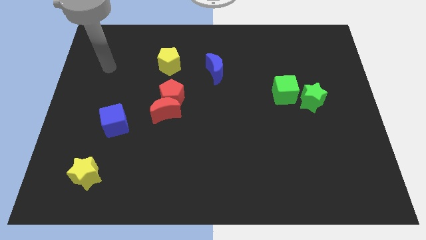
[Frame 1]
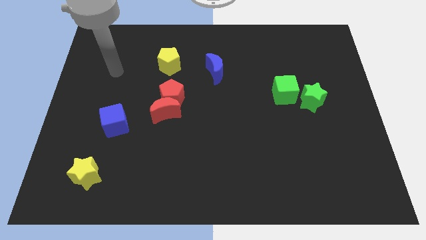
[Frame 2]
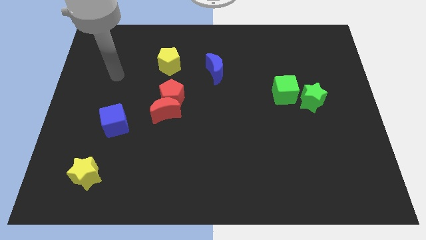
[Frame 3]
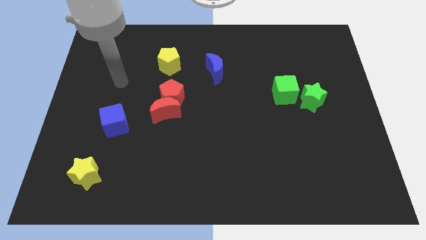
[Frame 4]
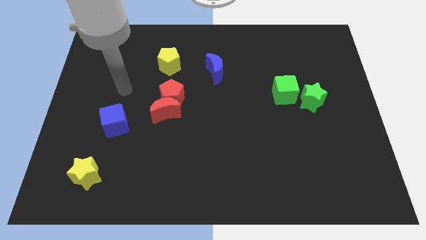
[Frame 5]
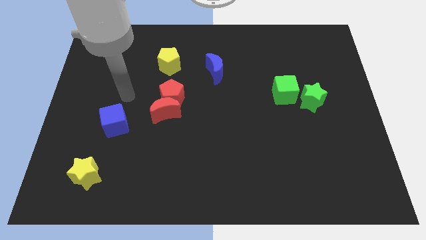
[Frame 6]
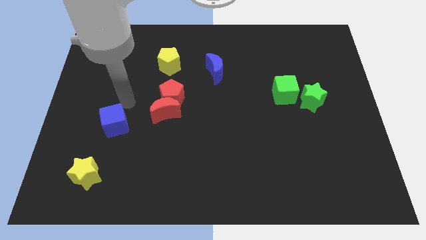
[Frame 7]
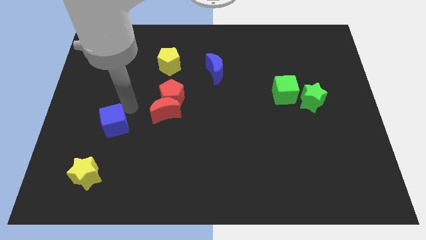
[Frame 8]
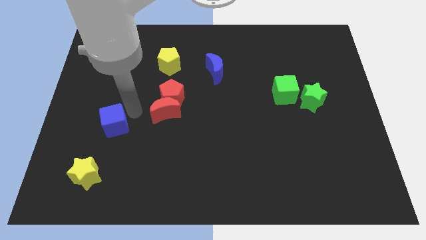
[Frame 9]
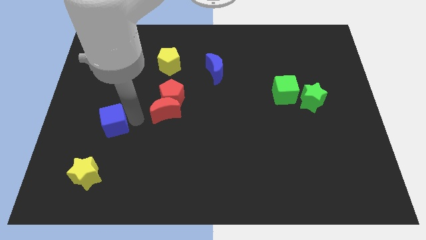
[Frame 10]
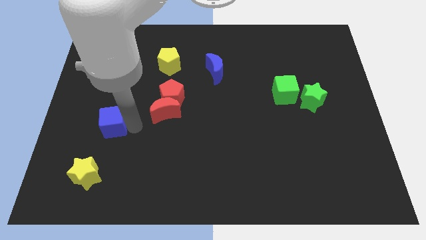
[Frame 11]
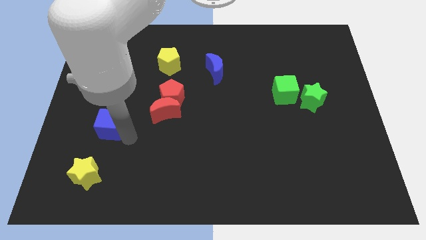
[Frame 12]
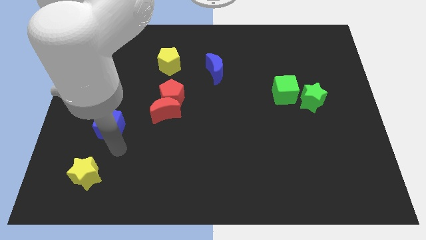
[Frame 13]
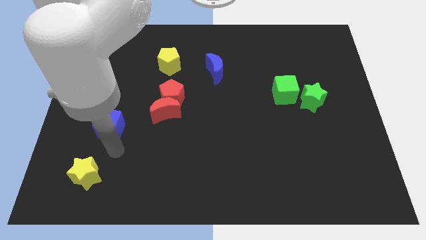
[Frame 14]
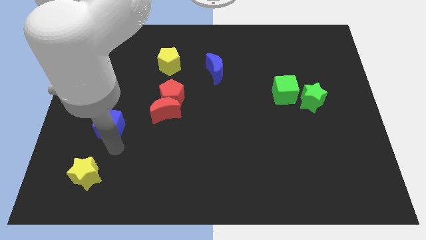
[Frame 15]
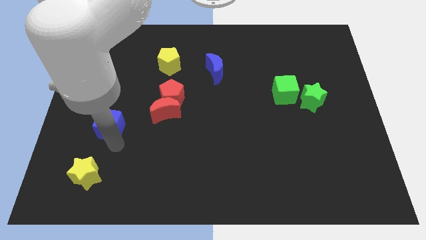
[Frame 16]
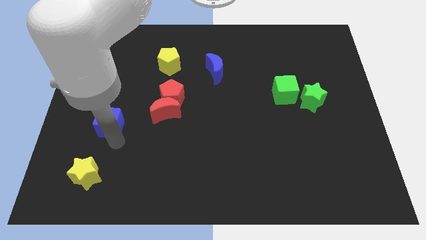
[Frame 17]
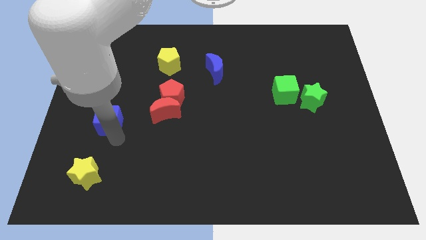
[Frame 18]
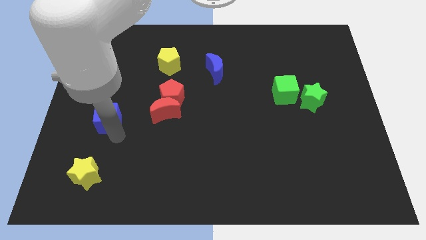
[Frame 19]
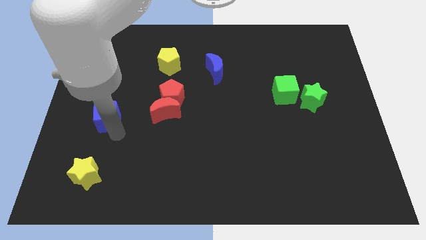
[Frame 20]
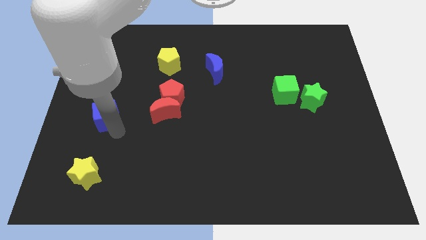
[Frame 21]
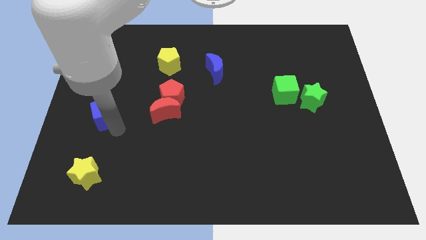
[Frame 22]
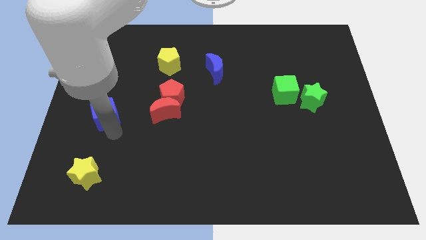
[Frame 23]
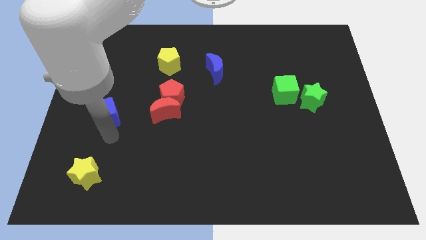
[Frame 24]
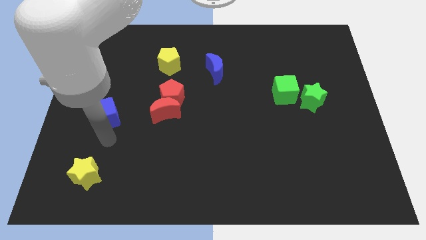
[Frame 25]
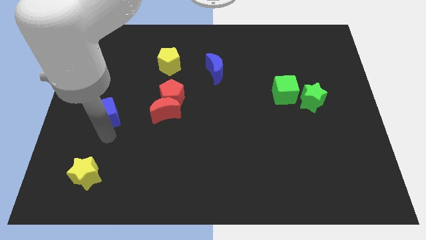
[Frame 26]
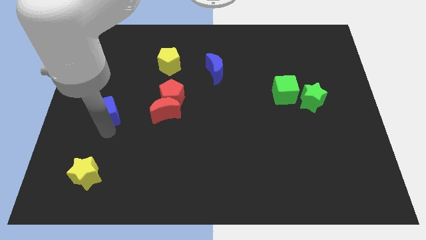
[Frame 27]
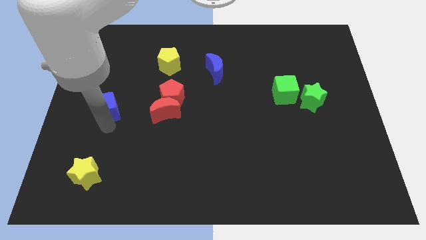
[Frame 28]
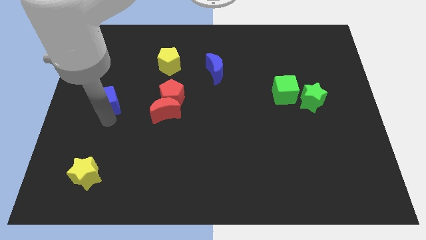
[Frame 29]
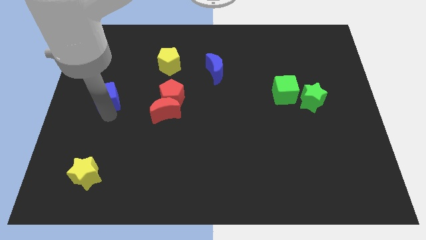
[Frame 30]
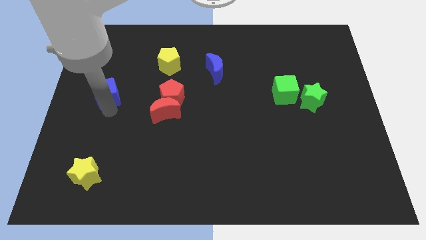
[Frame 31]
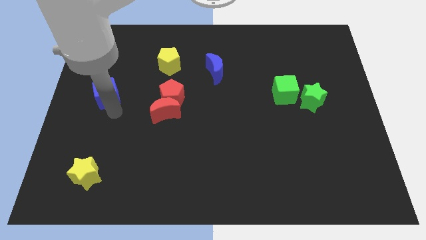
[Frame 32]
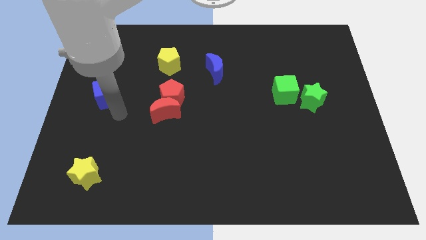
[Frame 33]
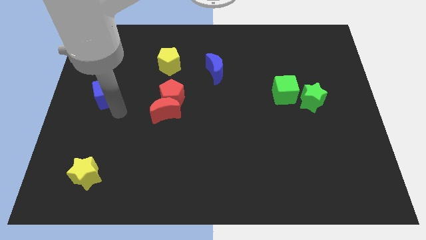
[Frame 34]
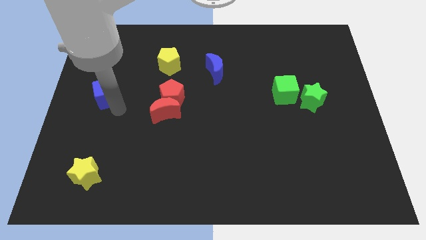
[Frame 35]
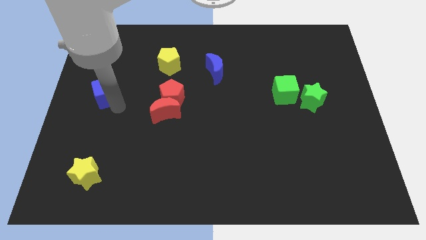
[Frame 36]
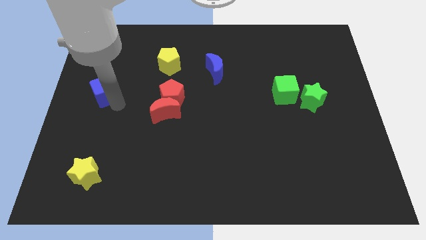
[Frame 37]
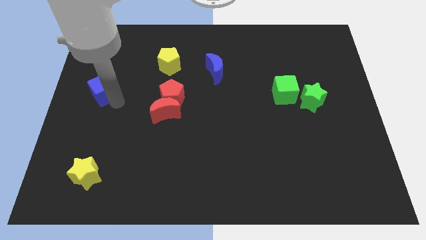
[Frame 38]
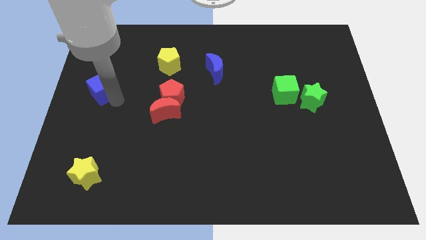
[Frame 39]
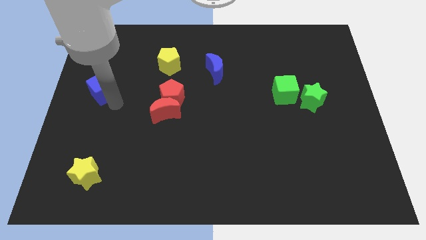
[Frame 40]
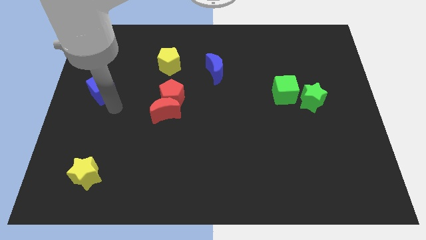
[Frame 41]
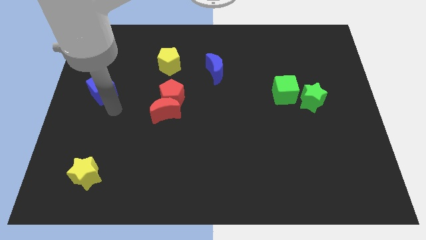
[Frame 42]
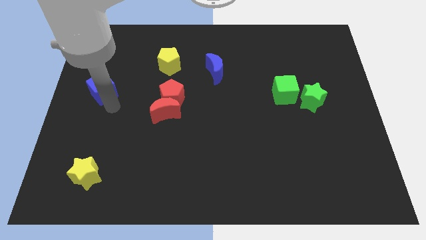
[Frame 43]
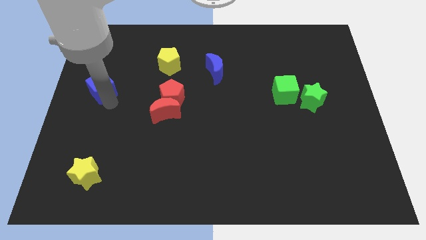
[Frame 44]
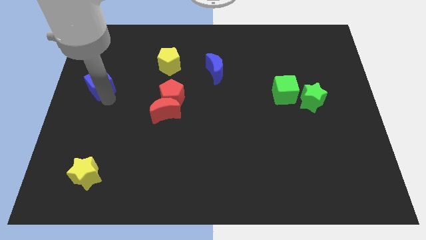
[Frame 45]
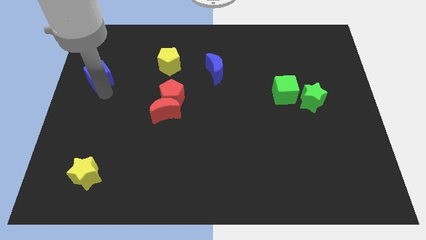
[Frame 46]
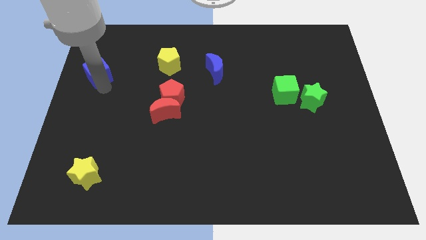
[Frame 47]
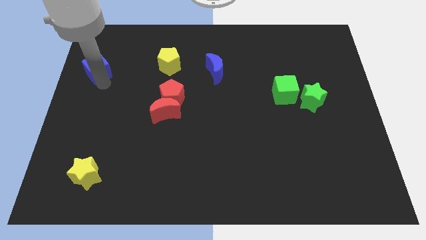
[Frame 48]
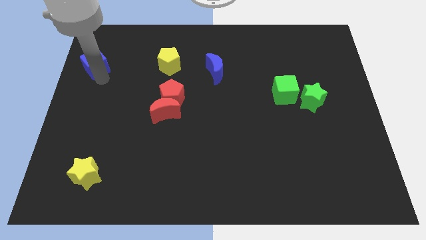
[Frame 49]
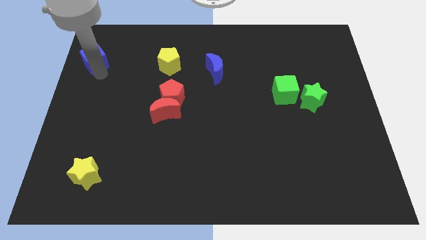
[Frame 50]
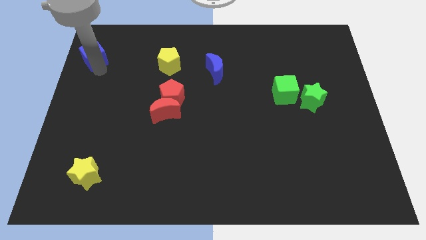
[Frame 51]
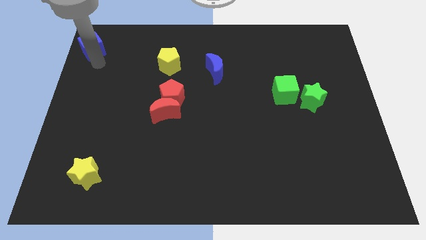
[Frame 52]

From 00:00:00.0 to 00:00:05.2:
put the blue cube to the upper left corner

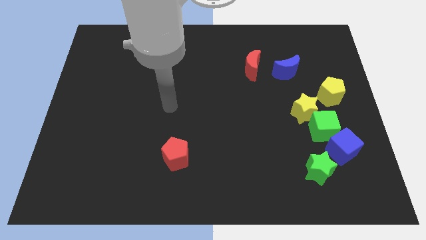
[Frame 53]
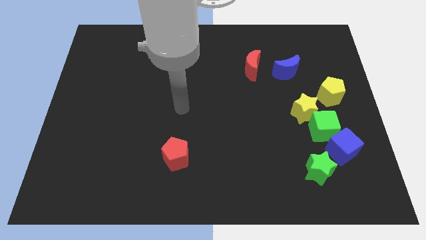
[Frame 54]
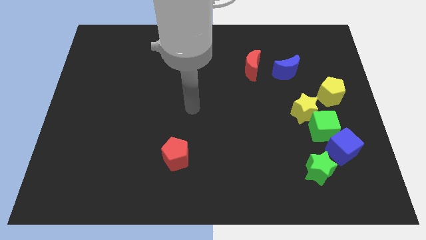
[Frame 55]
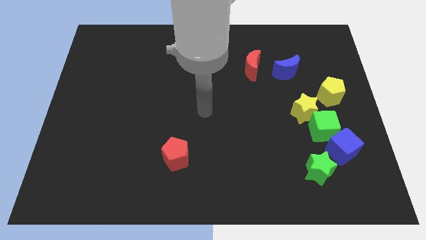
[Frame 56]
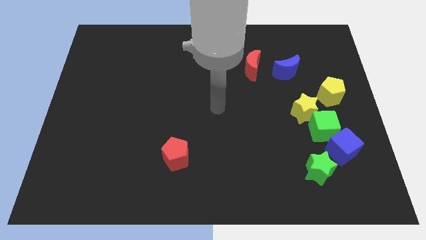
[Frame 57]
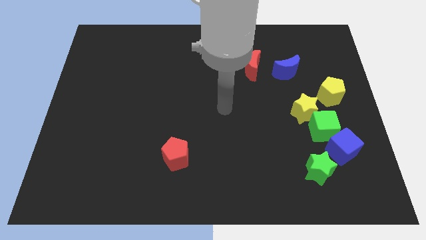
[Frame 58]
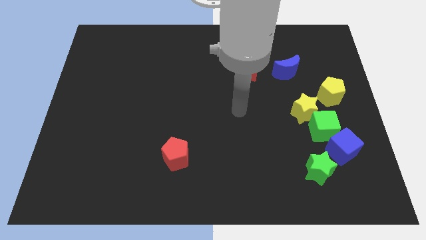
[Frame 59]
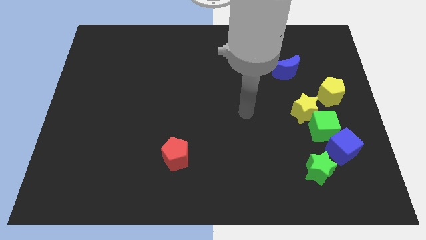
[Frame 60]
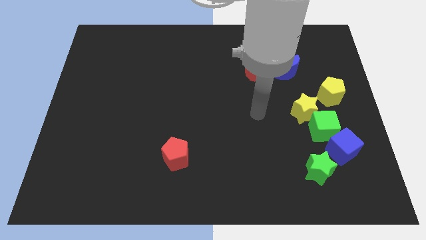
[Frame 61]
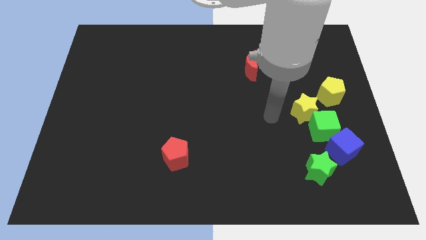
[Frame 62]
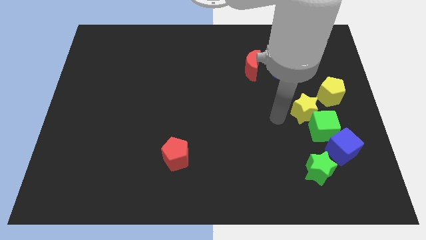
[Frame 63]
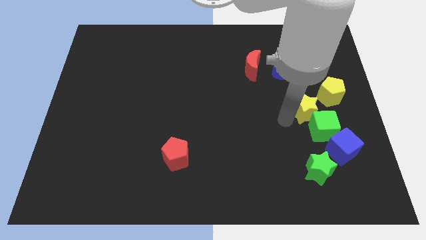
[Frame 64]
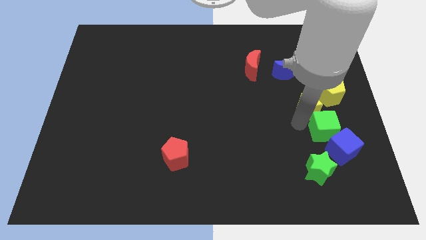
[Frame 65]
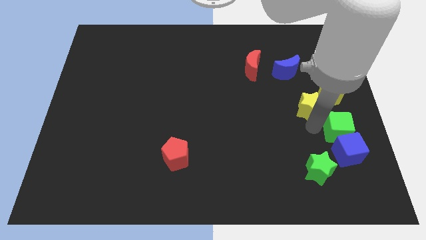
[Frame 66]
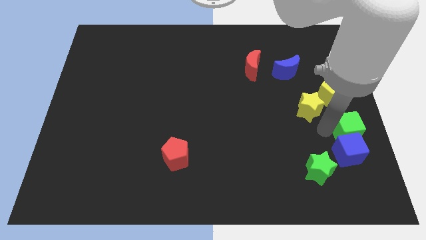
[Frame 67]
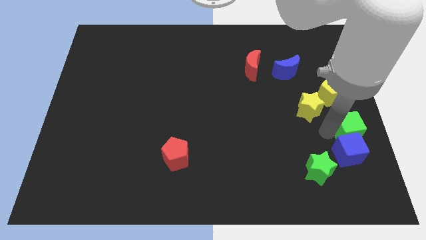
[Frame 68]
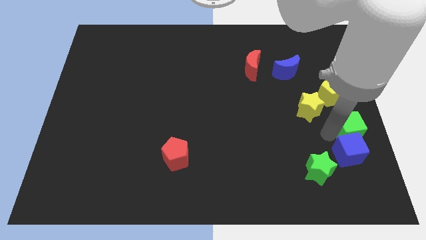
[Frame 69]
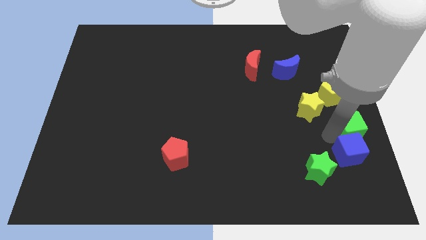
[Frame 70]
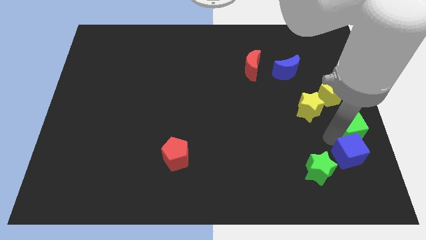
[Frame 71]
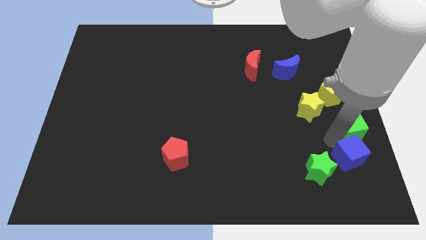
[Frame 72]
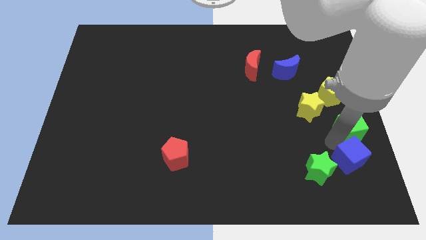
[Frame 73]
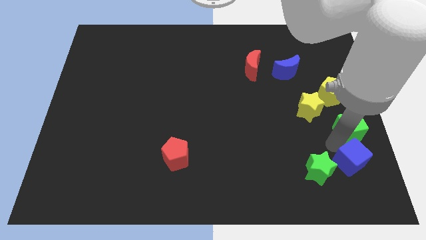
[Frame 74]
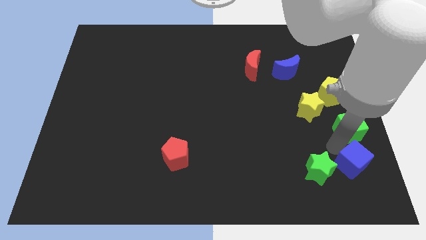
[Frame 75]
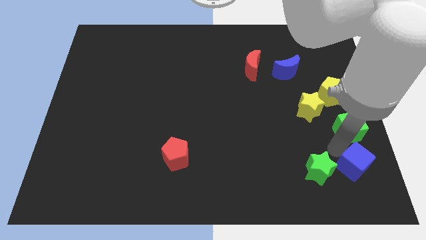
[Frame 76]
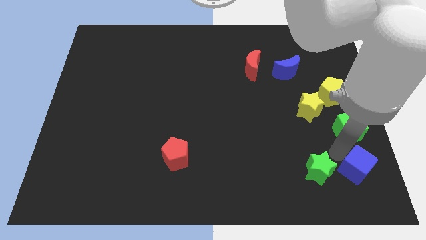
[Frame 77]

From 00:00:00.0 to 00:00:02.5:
slide the blue cube to the bottom right

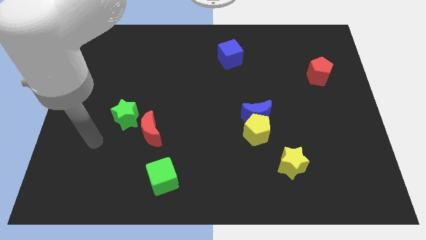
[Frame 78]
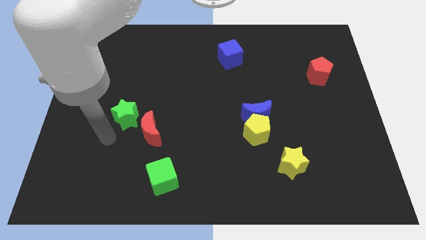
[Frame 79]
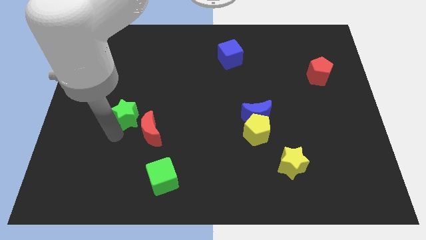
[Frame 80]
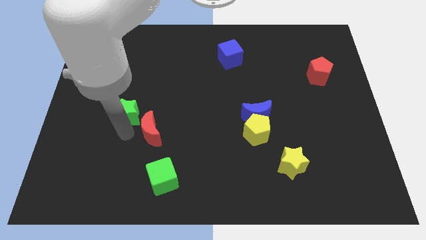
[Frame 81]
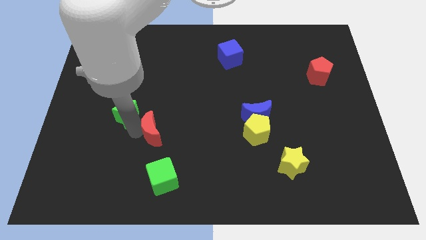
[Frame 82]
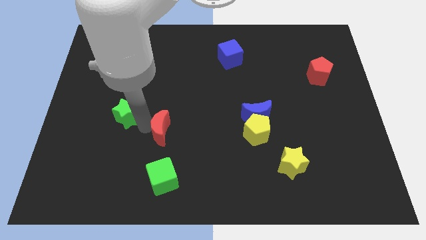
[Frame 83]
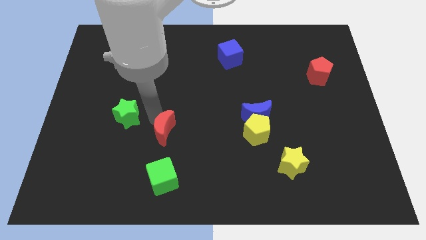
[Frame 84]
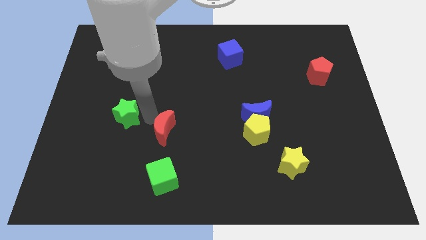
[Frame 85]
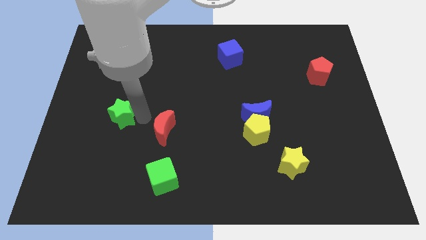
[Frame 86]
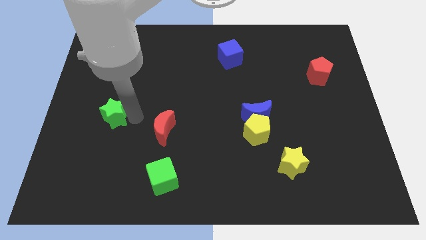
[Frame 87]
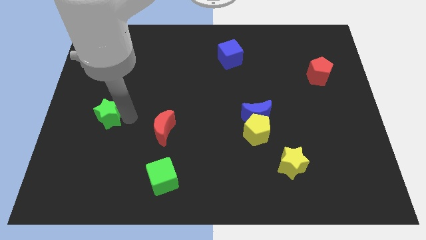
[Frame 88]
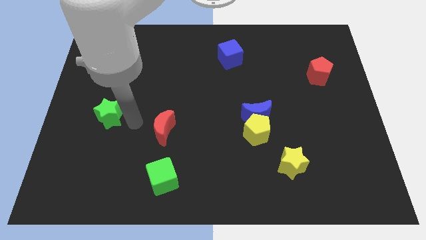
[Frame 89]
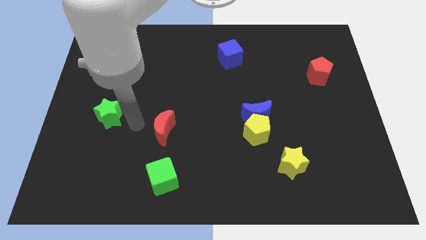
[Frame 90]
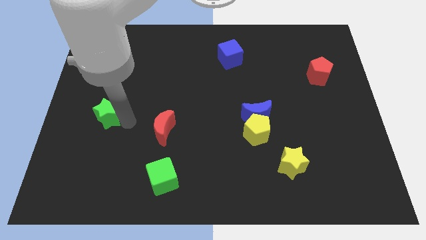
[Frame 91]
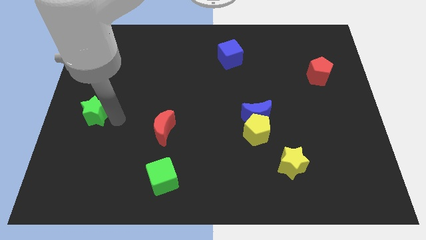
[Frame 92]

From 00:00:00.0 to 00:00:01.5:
push the green star to the left side
